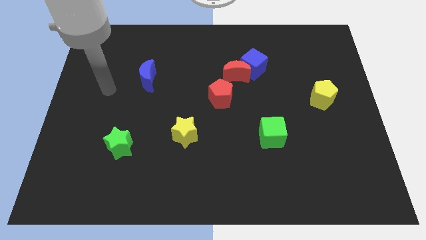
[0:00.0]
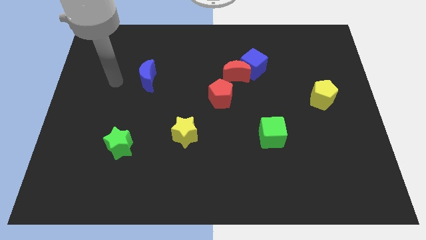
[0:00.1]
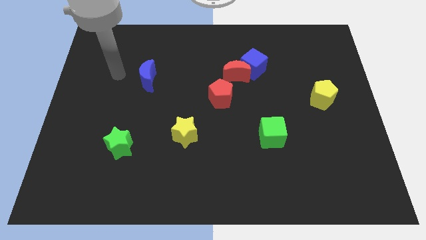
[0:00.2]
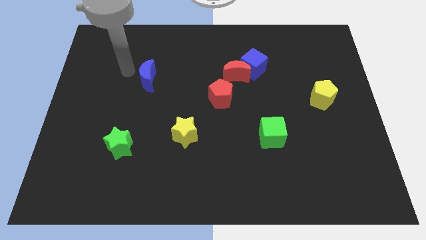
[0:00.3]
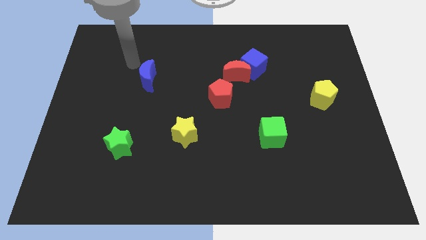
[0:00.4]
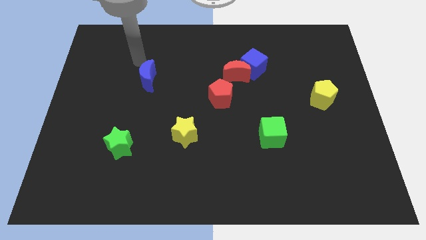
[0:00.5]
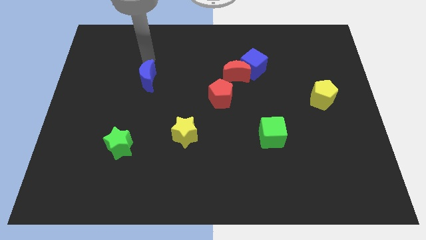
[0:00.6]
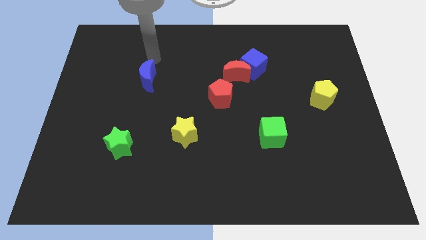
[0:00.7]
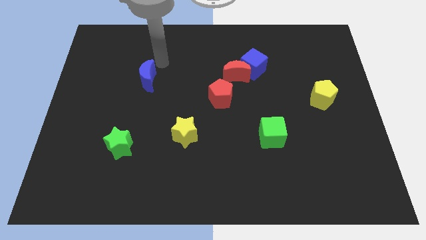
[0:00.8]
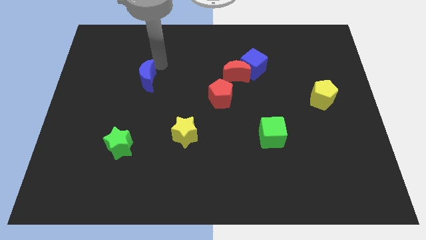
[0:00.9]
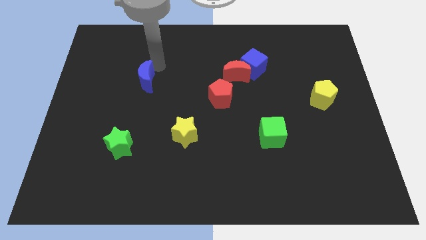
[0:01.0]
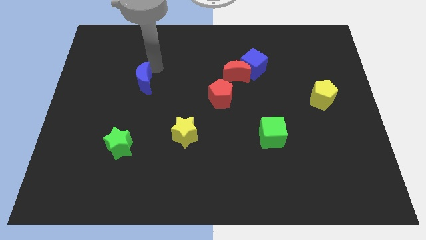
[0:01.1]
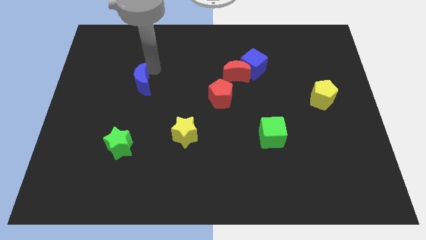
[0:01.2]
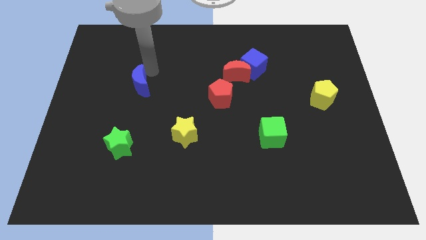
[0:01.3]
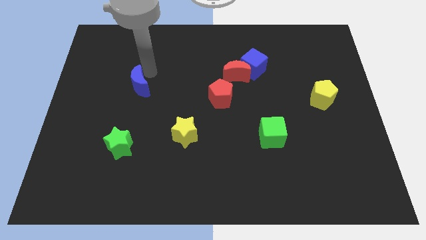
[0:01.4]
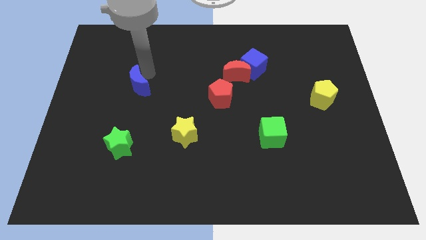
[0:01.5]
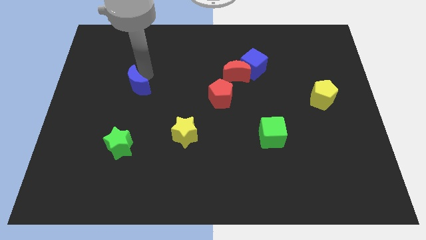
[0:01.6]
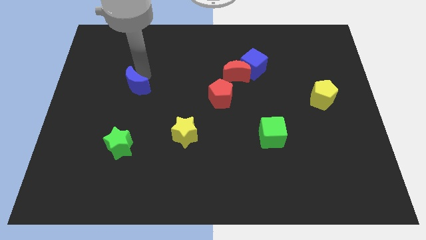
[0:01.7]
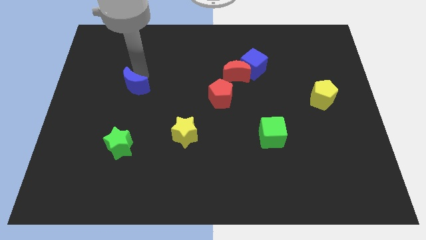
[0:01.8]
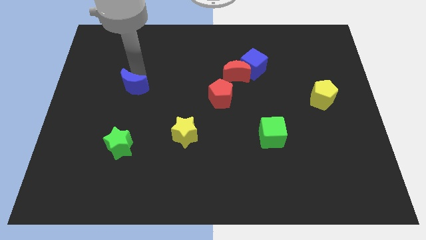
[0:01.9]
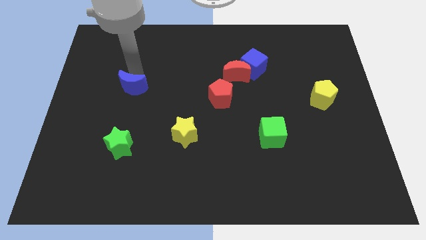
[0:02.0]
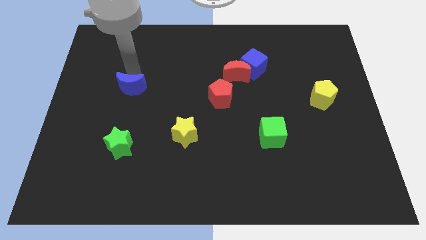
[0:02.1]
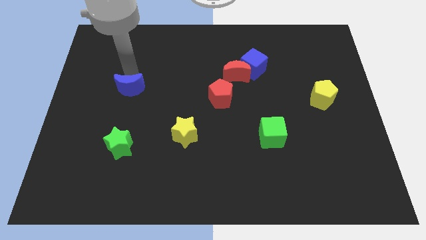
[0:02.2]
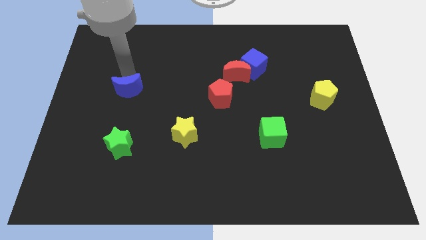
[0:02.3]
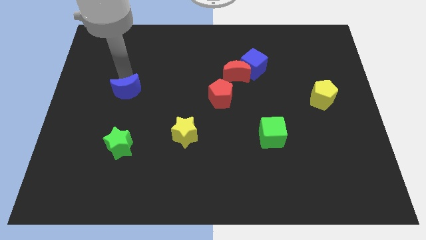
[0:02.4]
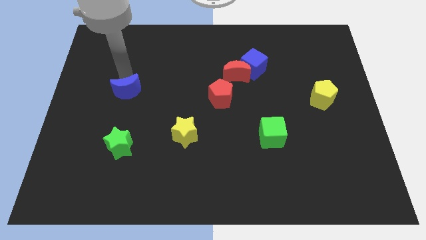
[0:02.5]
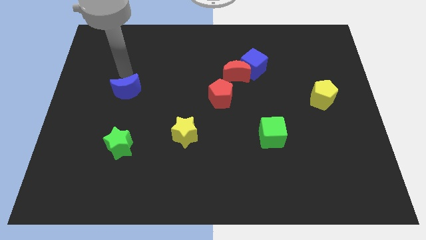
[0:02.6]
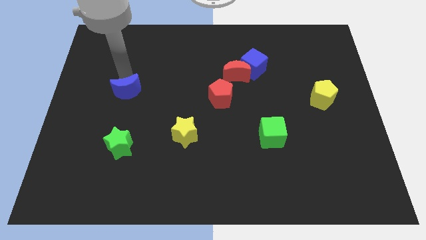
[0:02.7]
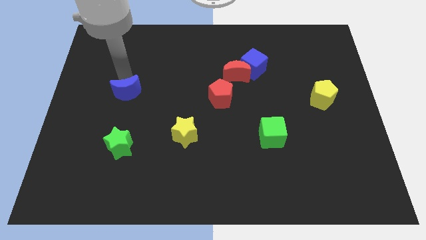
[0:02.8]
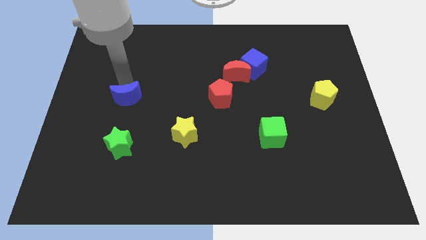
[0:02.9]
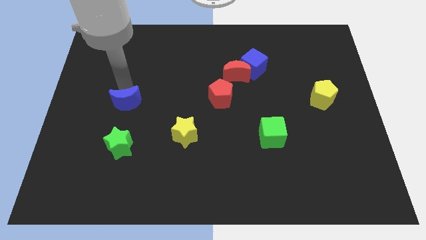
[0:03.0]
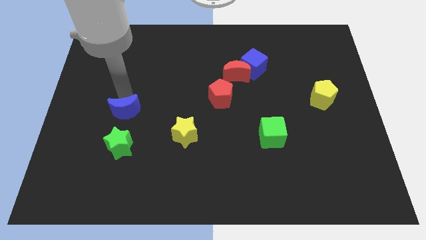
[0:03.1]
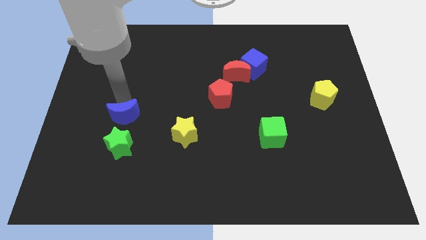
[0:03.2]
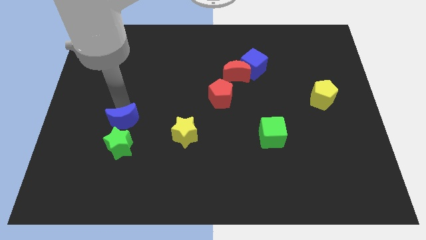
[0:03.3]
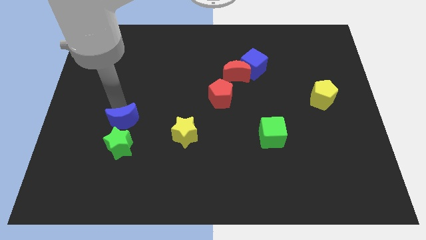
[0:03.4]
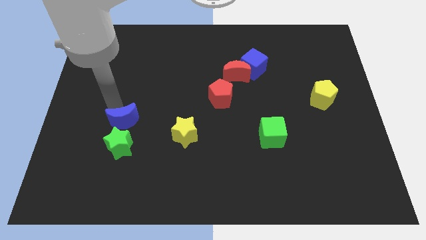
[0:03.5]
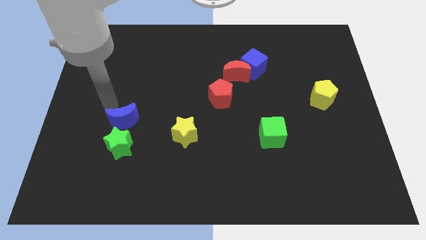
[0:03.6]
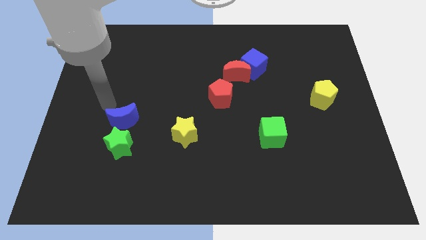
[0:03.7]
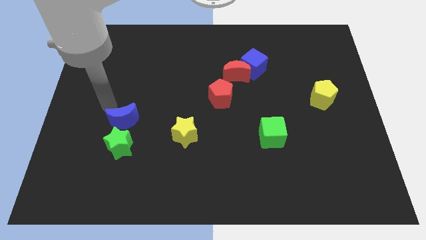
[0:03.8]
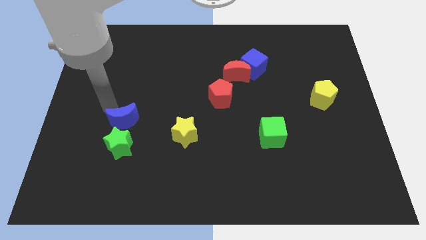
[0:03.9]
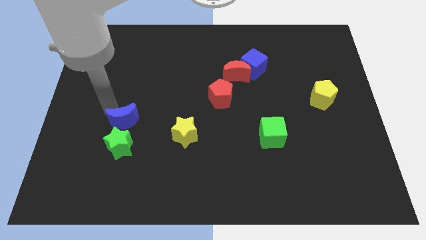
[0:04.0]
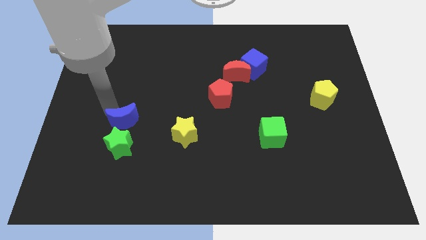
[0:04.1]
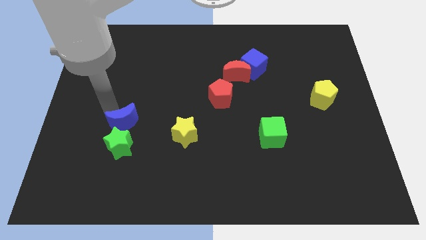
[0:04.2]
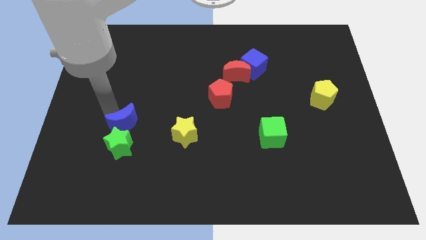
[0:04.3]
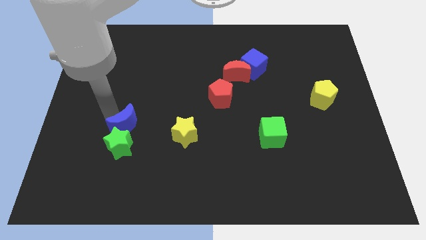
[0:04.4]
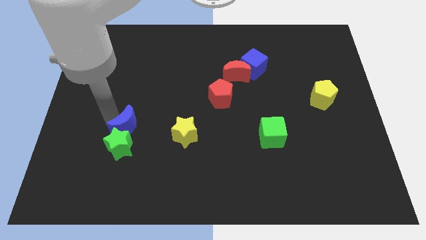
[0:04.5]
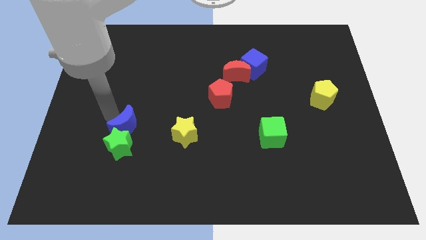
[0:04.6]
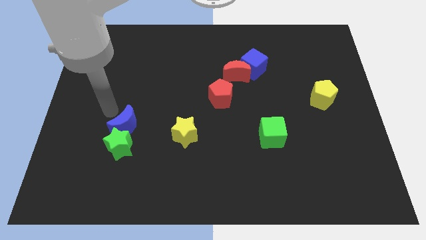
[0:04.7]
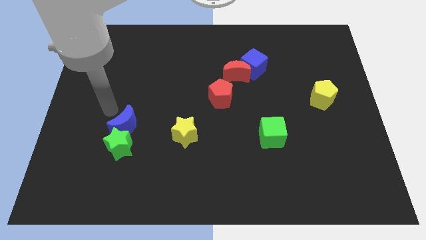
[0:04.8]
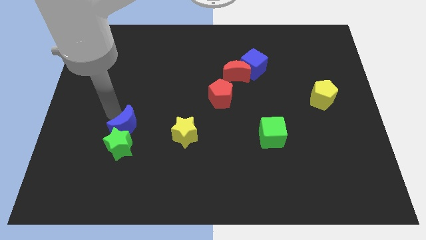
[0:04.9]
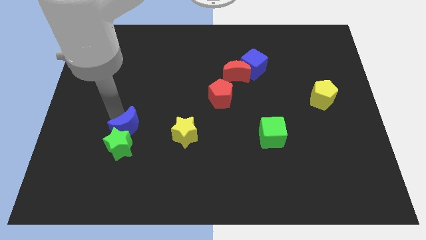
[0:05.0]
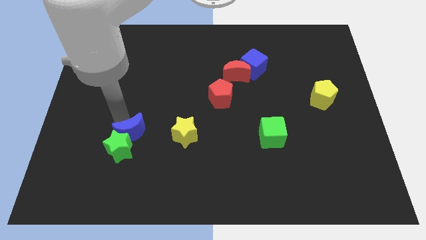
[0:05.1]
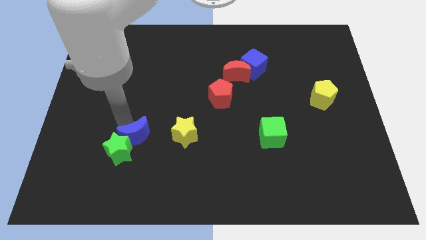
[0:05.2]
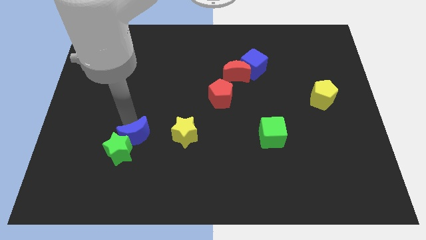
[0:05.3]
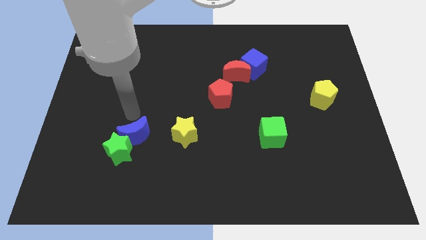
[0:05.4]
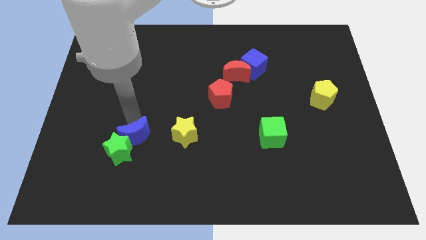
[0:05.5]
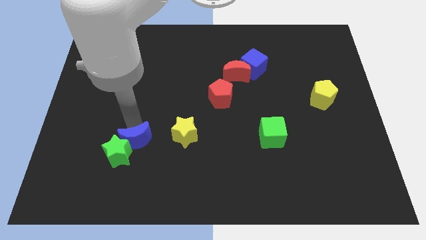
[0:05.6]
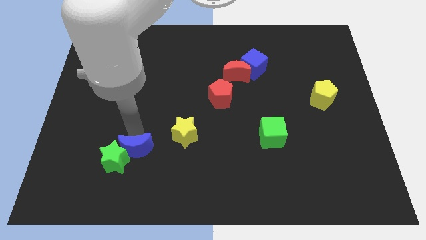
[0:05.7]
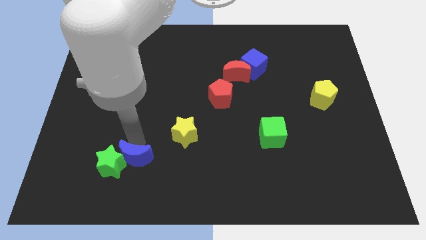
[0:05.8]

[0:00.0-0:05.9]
move the blue moon to the bottom right side of the green star

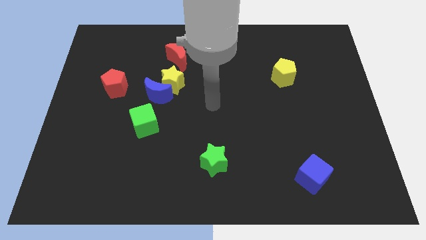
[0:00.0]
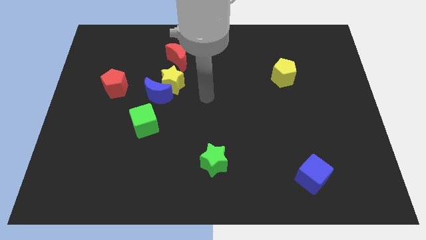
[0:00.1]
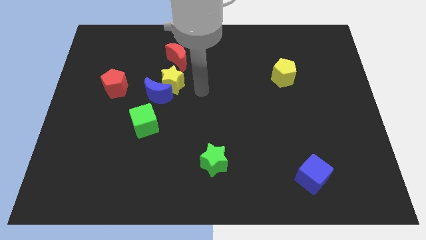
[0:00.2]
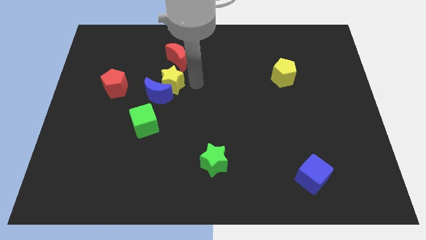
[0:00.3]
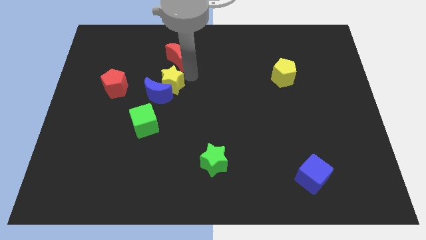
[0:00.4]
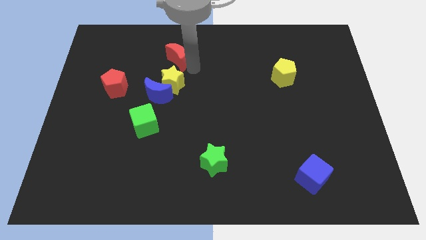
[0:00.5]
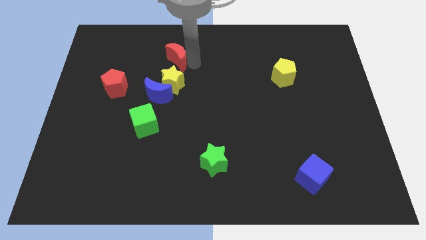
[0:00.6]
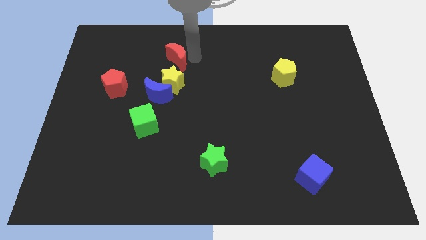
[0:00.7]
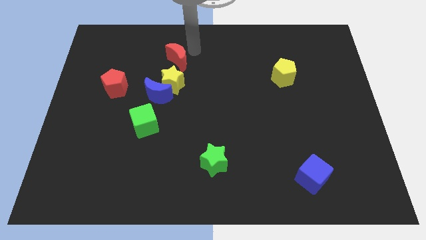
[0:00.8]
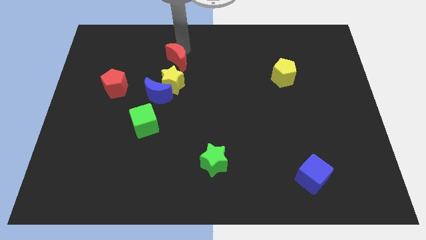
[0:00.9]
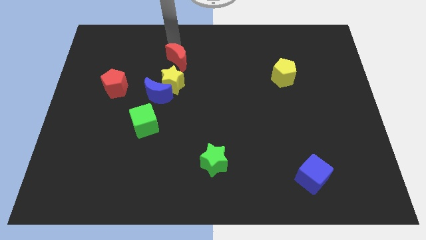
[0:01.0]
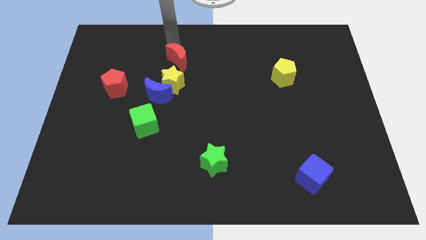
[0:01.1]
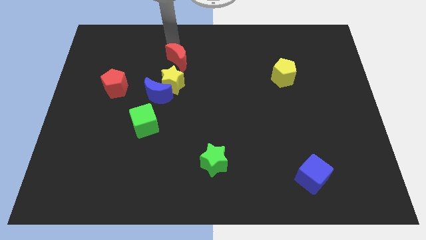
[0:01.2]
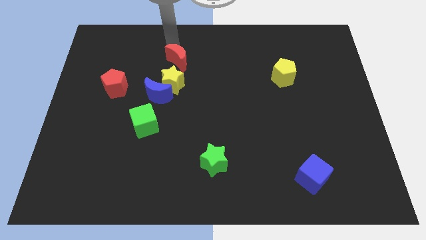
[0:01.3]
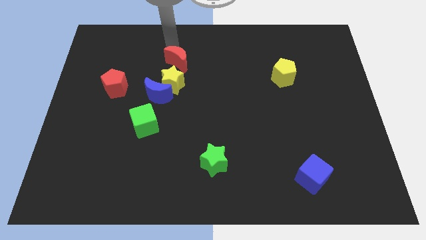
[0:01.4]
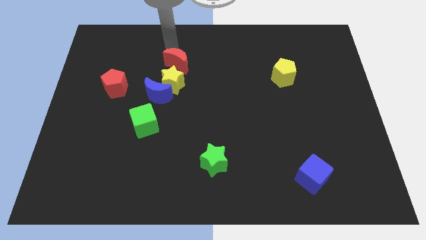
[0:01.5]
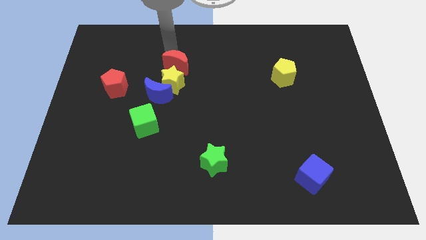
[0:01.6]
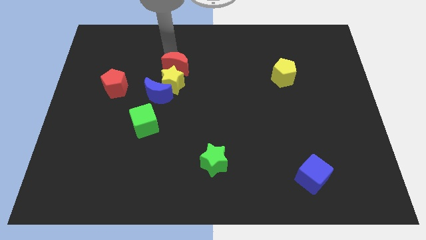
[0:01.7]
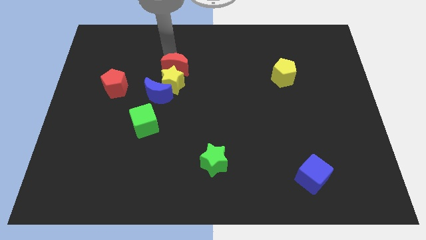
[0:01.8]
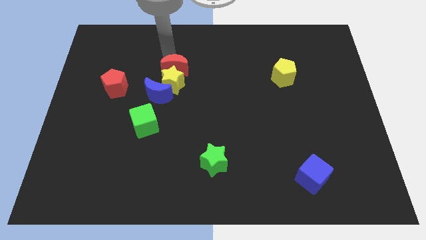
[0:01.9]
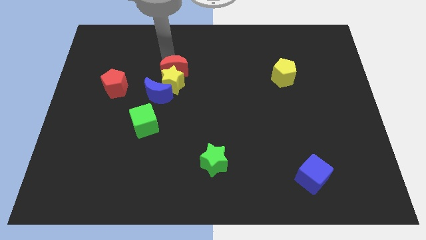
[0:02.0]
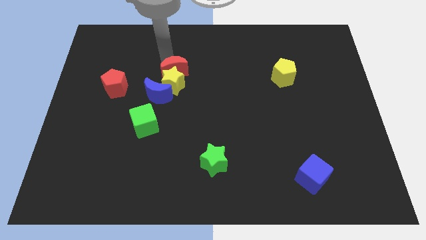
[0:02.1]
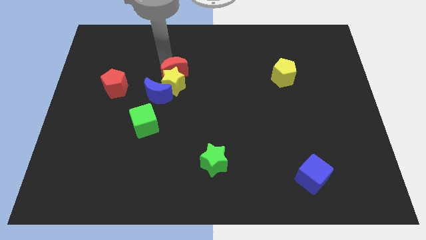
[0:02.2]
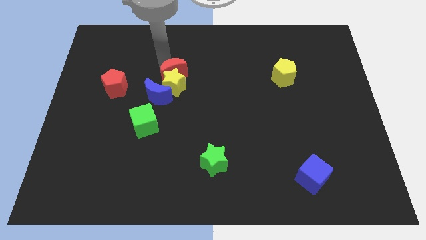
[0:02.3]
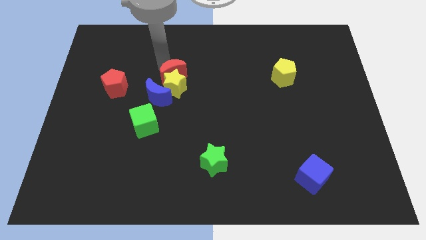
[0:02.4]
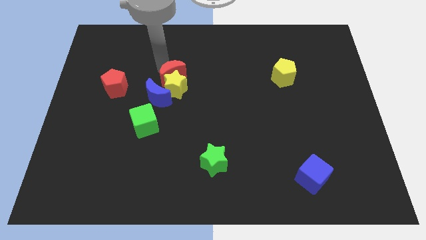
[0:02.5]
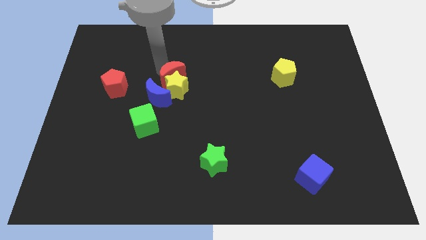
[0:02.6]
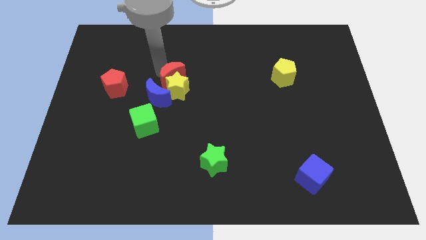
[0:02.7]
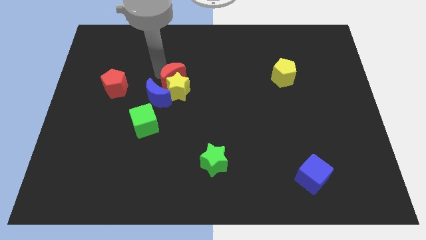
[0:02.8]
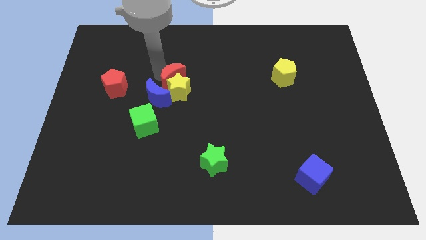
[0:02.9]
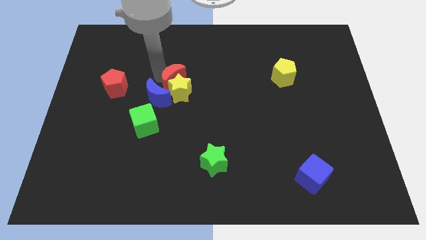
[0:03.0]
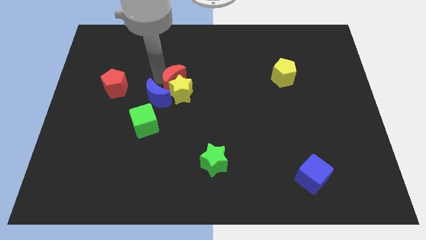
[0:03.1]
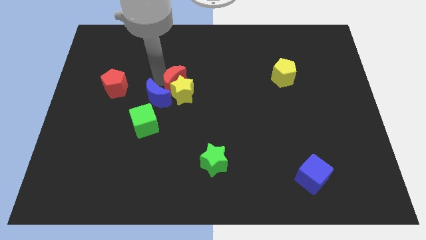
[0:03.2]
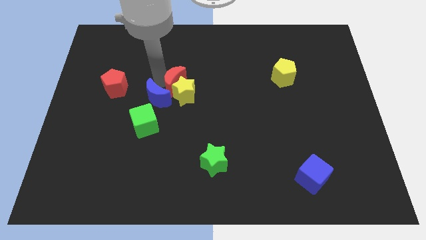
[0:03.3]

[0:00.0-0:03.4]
slide the red moon right of the blue moon
